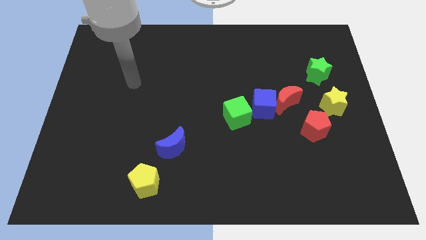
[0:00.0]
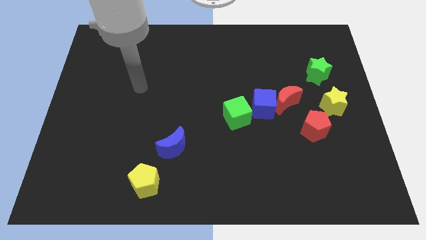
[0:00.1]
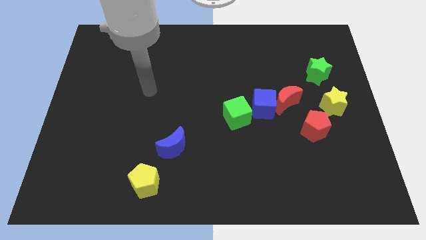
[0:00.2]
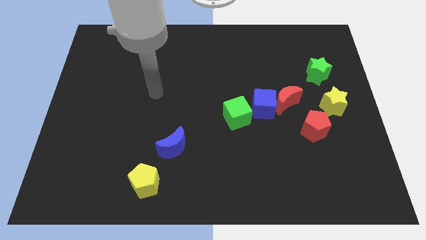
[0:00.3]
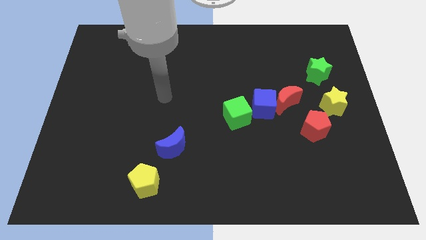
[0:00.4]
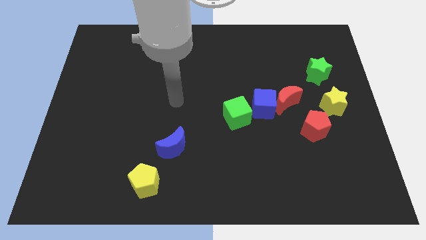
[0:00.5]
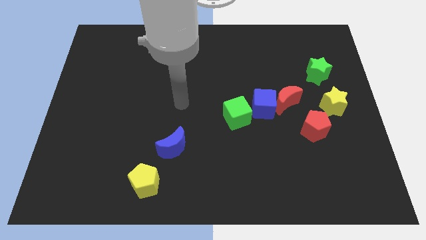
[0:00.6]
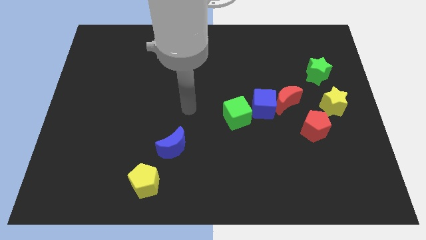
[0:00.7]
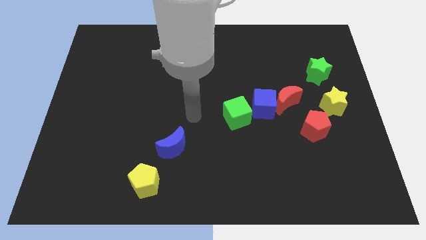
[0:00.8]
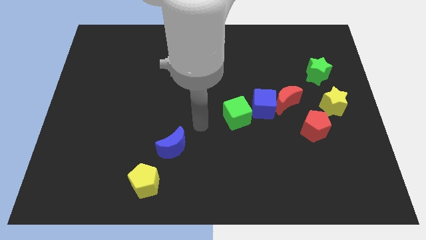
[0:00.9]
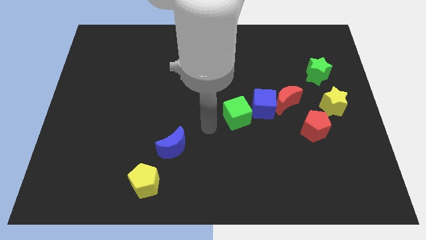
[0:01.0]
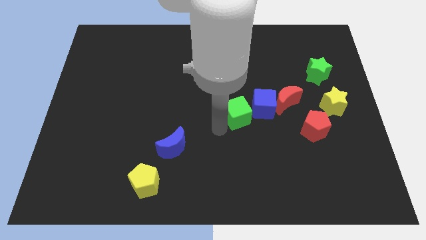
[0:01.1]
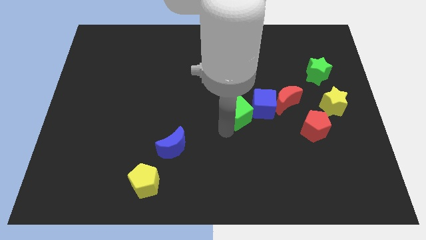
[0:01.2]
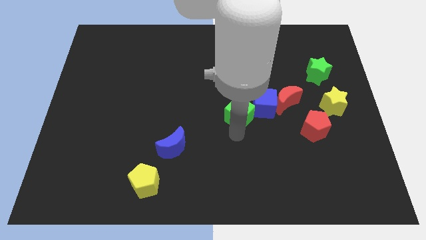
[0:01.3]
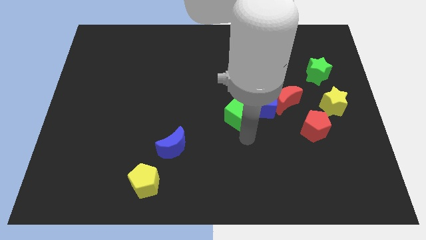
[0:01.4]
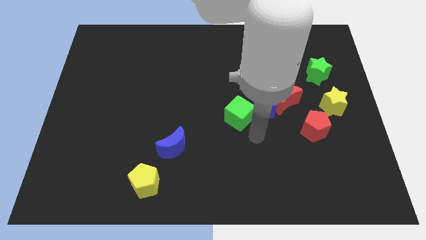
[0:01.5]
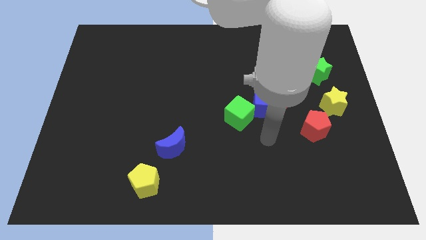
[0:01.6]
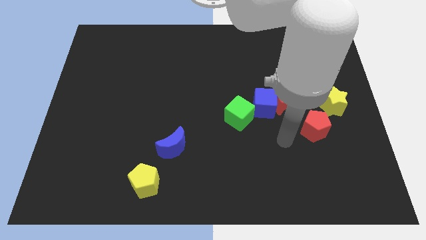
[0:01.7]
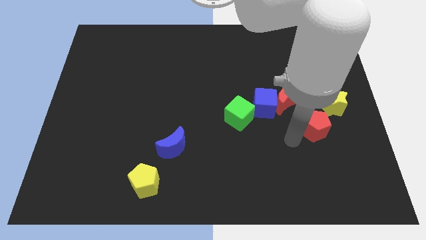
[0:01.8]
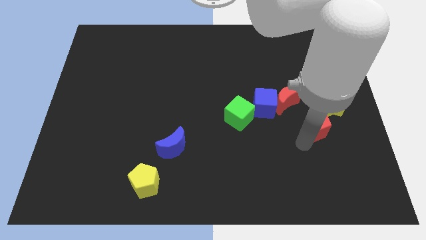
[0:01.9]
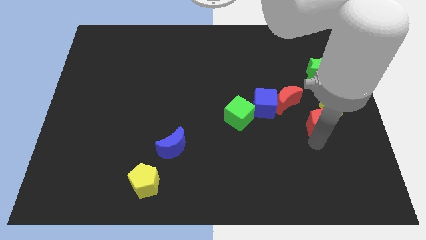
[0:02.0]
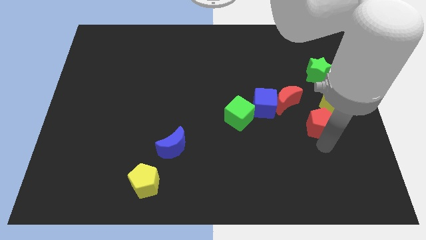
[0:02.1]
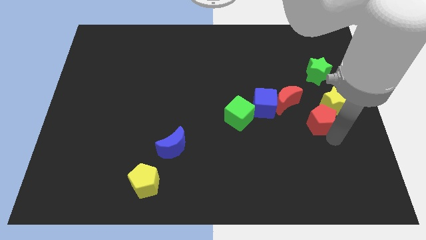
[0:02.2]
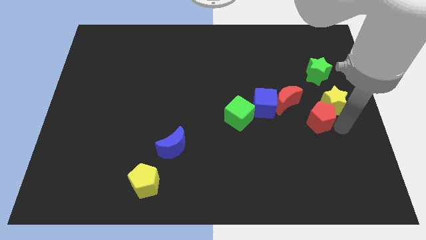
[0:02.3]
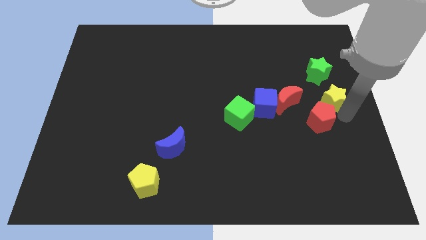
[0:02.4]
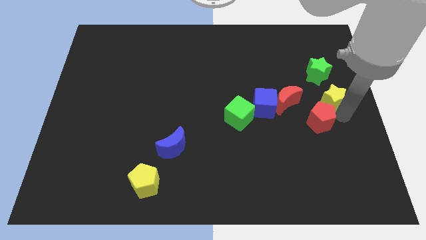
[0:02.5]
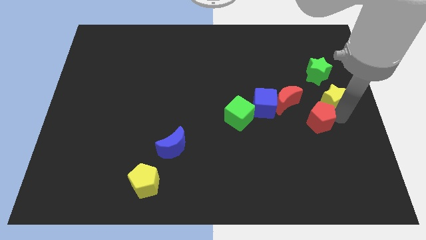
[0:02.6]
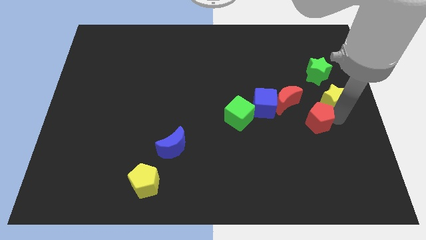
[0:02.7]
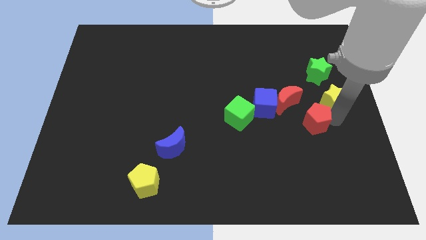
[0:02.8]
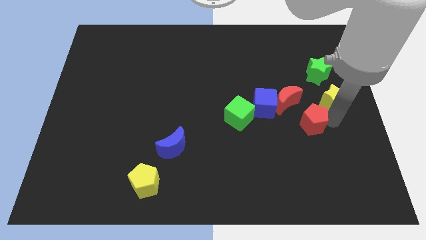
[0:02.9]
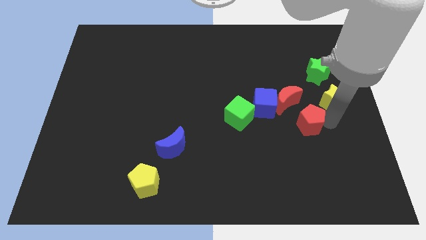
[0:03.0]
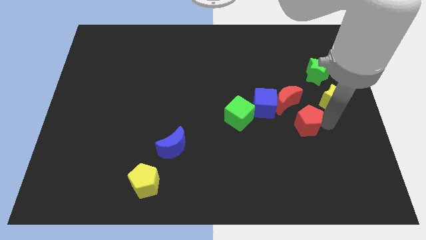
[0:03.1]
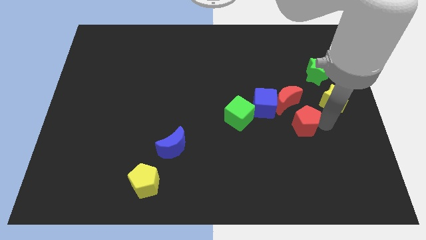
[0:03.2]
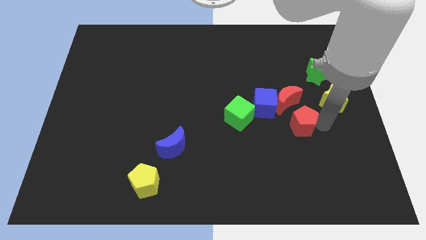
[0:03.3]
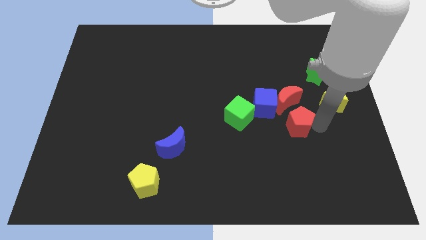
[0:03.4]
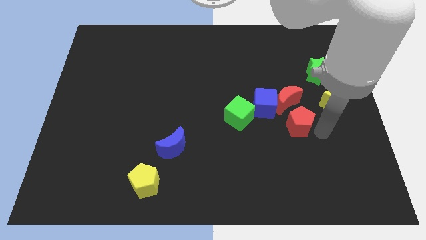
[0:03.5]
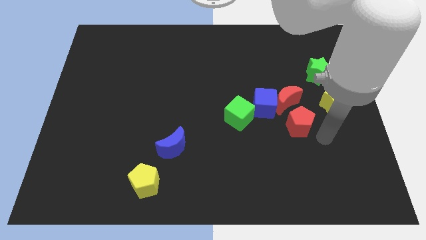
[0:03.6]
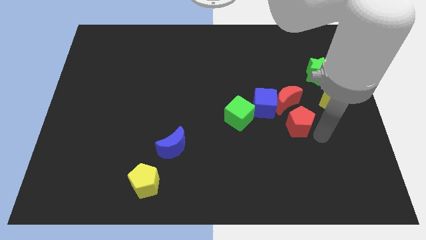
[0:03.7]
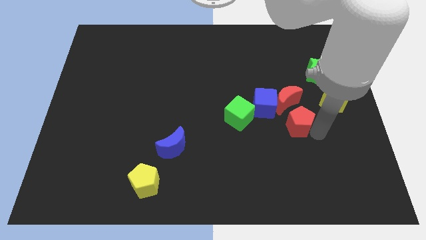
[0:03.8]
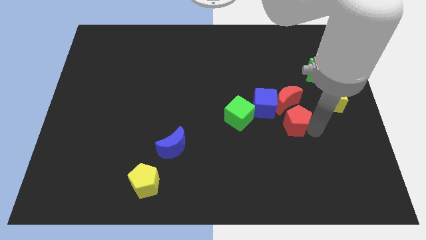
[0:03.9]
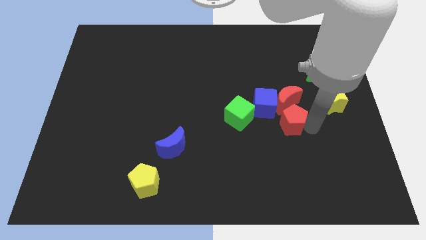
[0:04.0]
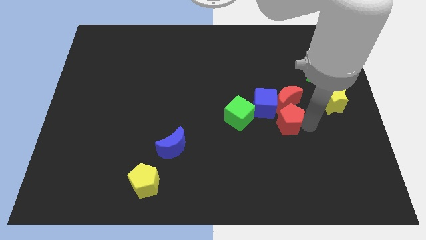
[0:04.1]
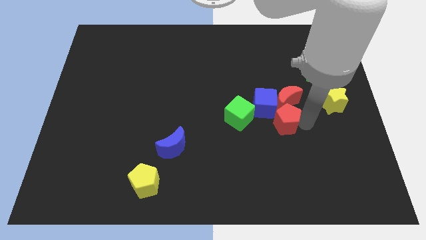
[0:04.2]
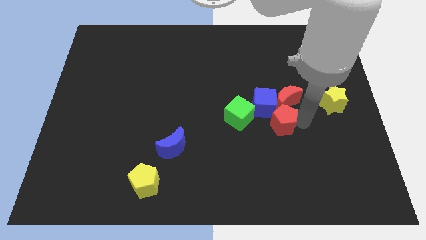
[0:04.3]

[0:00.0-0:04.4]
push the red pentagon towards the blue cube

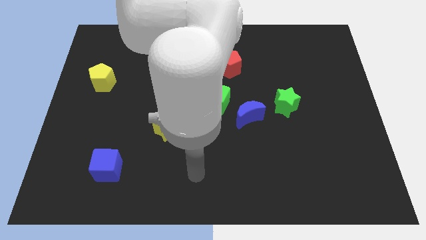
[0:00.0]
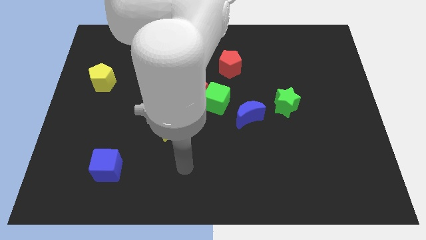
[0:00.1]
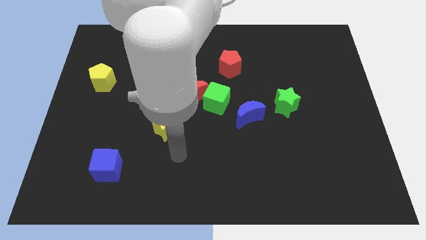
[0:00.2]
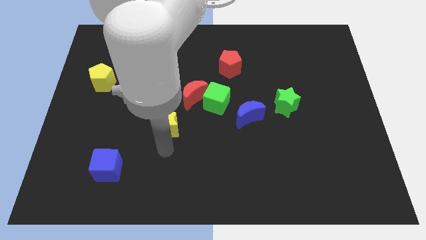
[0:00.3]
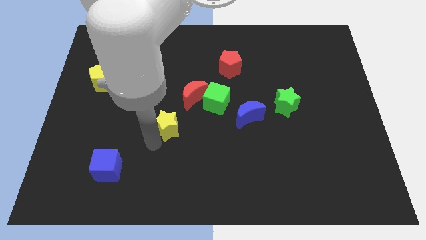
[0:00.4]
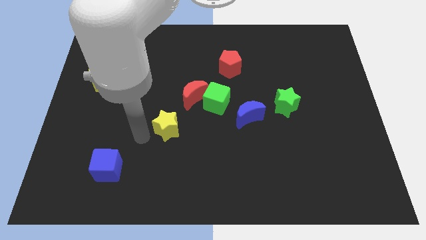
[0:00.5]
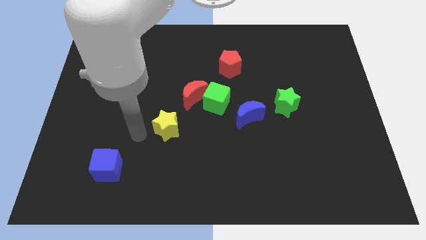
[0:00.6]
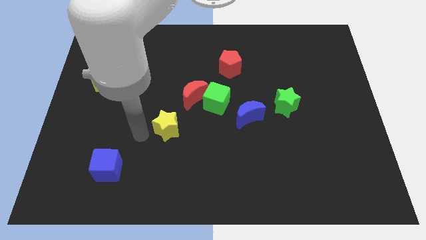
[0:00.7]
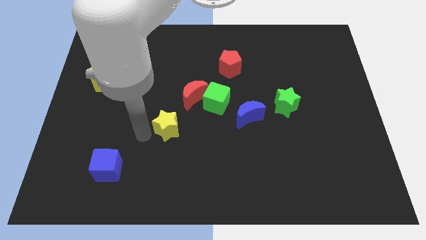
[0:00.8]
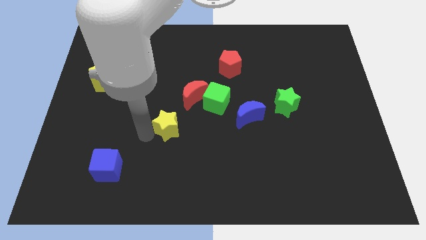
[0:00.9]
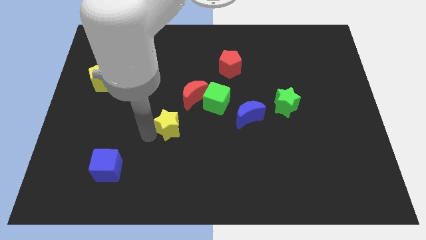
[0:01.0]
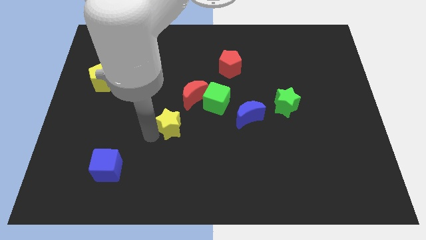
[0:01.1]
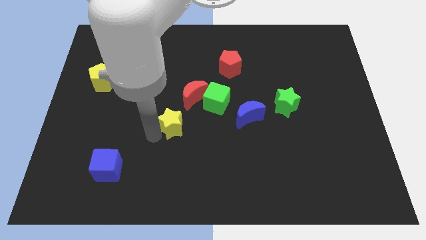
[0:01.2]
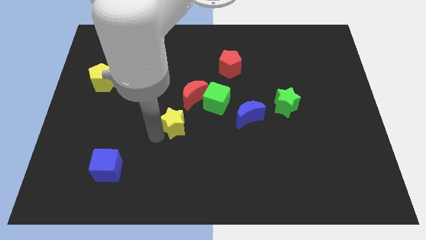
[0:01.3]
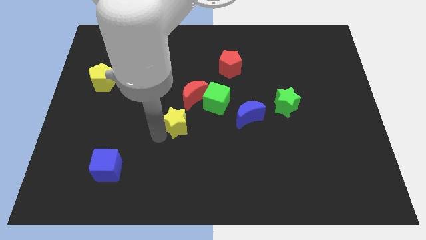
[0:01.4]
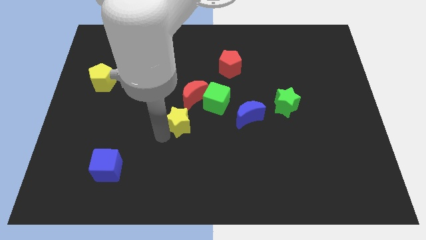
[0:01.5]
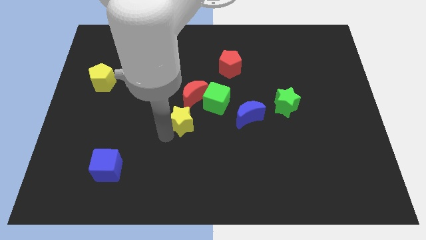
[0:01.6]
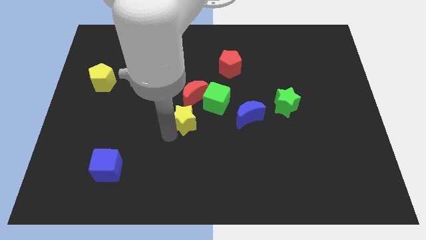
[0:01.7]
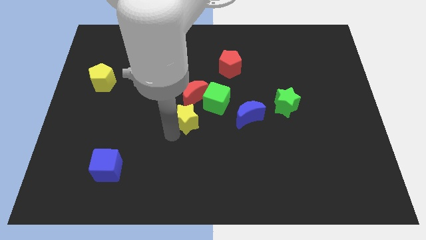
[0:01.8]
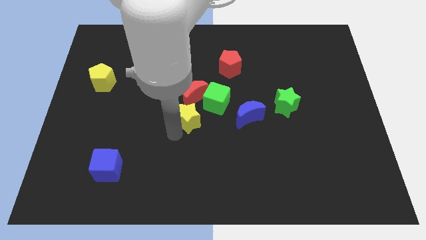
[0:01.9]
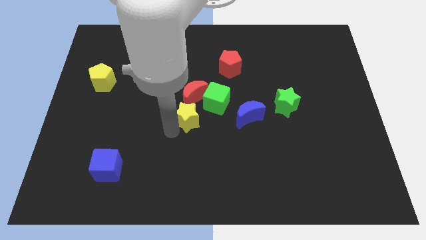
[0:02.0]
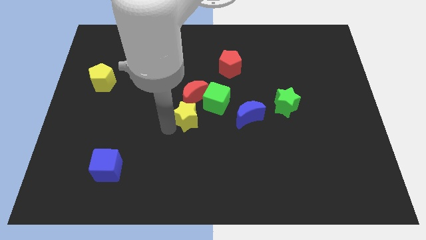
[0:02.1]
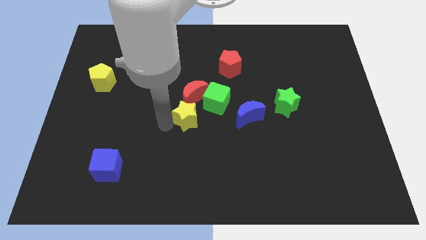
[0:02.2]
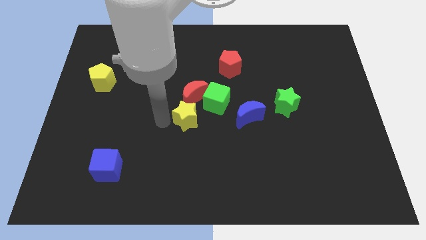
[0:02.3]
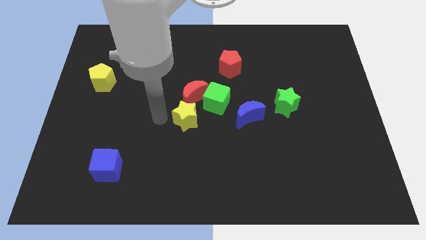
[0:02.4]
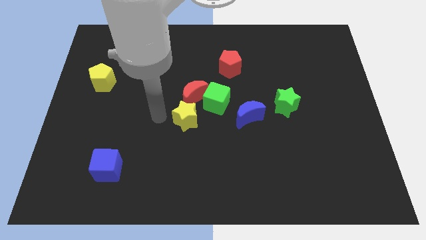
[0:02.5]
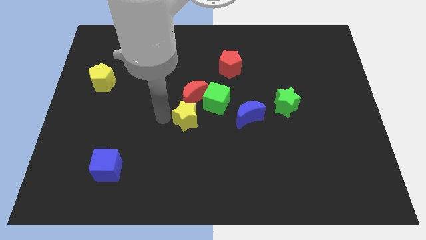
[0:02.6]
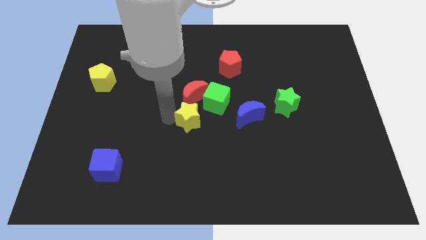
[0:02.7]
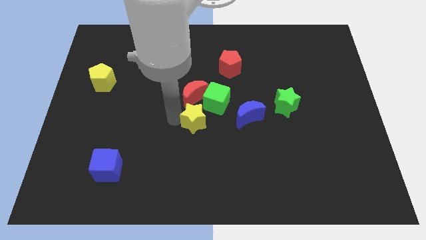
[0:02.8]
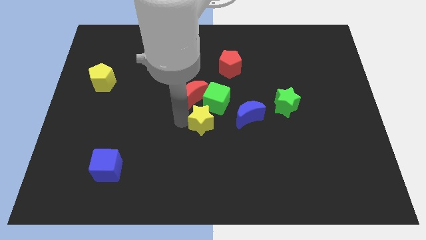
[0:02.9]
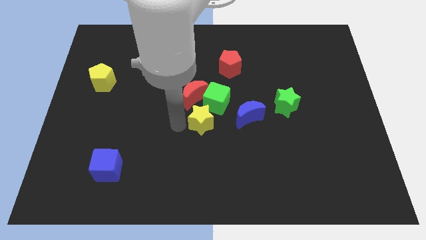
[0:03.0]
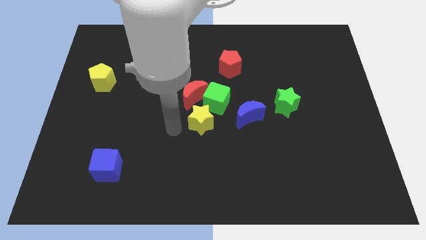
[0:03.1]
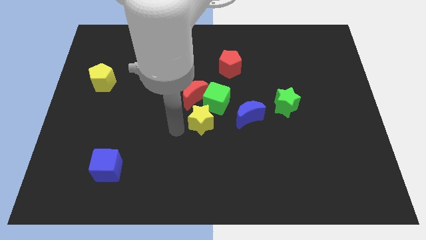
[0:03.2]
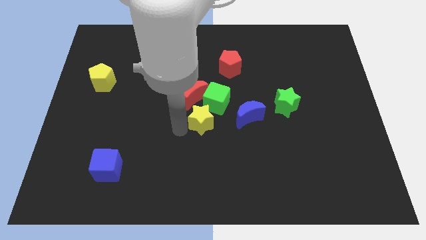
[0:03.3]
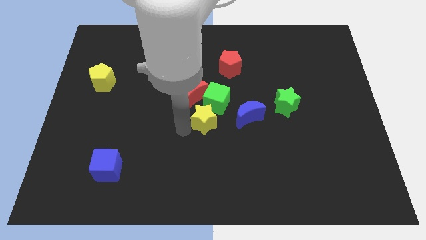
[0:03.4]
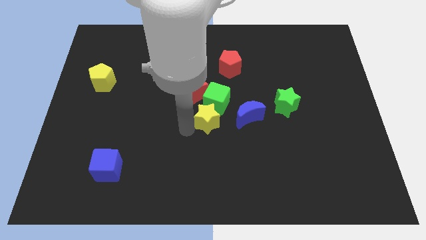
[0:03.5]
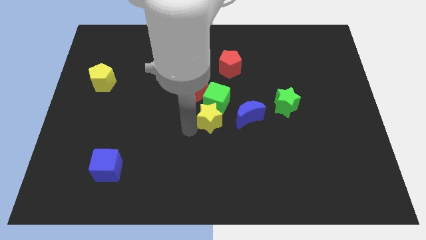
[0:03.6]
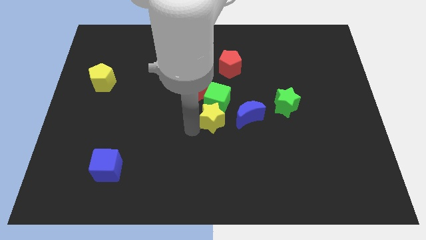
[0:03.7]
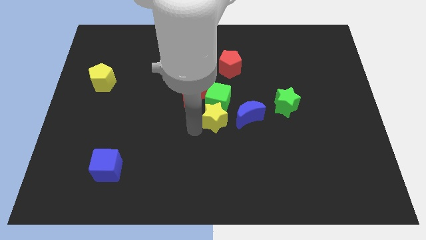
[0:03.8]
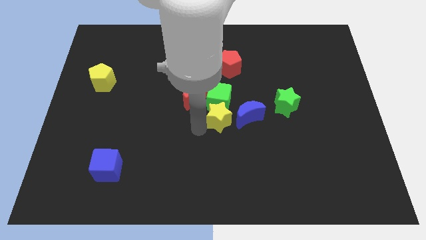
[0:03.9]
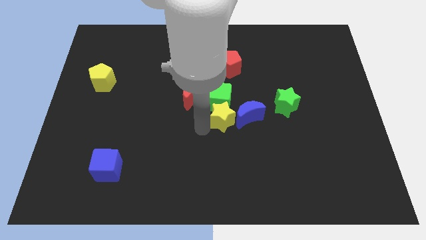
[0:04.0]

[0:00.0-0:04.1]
push the yellow star close to the blue moon
